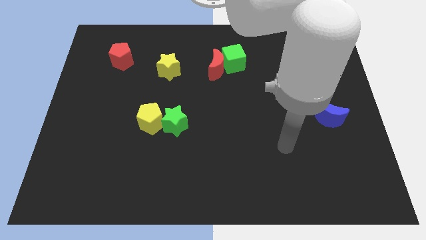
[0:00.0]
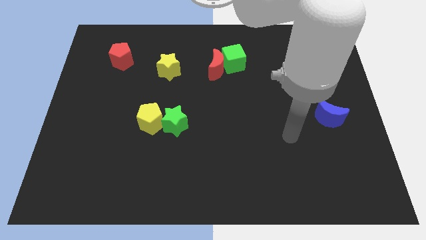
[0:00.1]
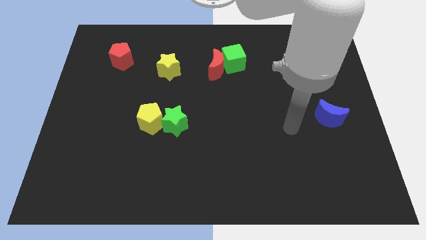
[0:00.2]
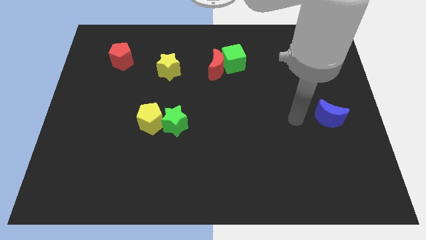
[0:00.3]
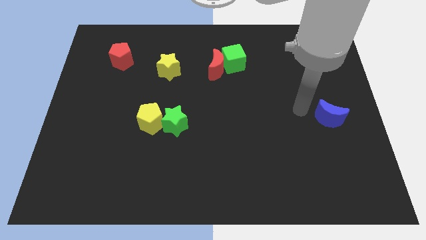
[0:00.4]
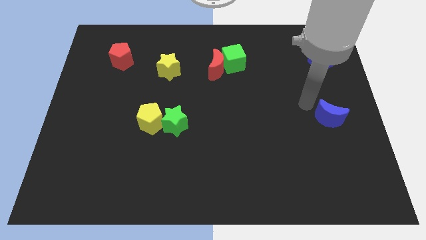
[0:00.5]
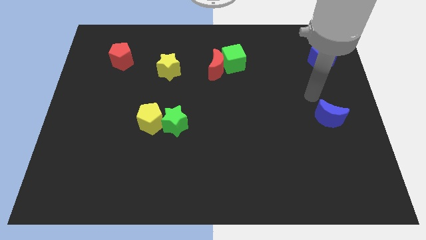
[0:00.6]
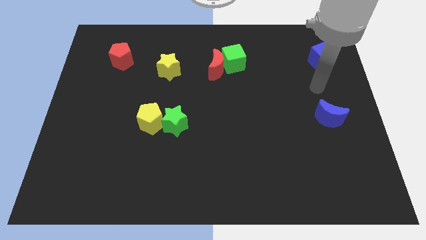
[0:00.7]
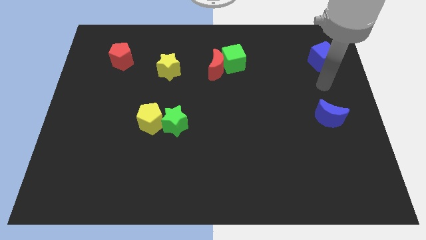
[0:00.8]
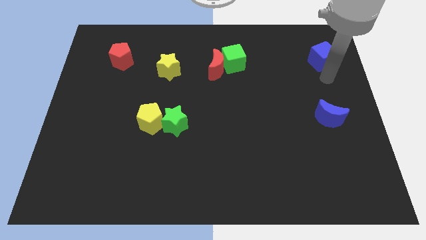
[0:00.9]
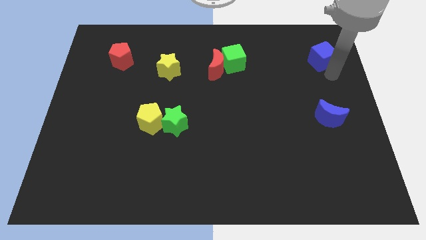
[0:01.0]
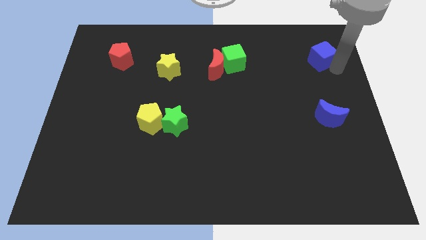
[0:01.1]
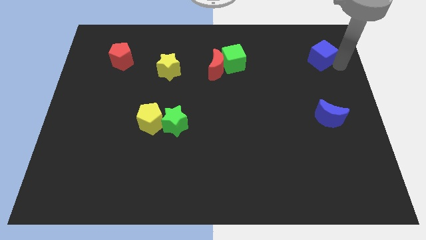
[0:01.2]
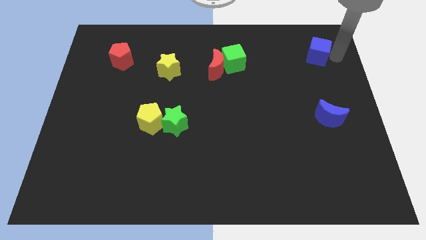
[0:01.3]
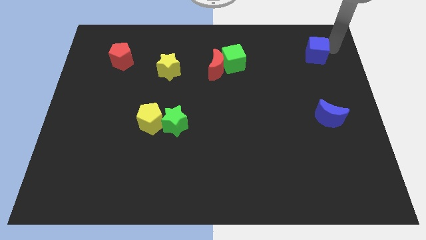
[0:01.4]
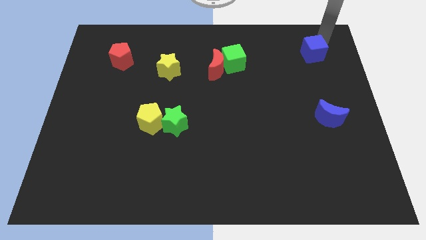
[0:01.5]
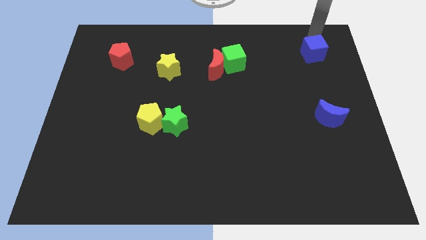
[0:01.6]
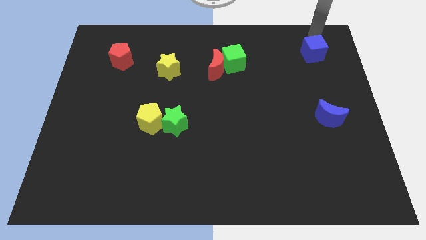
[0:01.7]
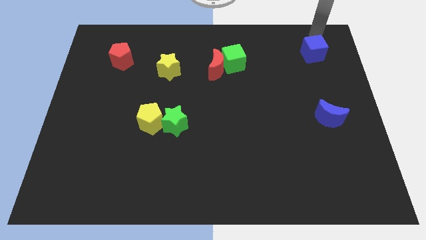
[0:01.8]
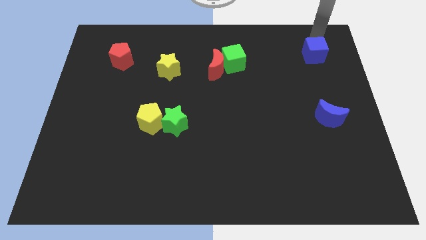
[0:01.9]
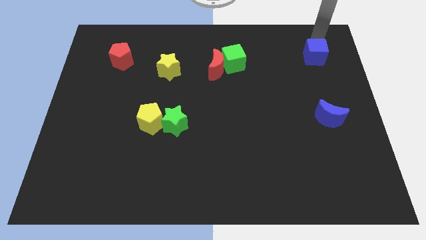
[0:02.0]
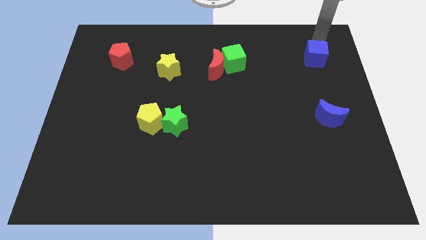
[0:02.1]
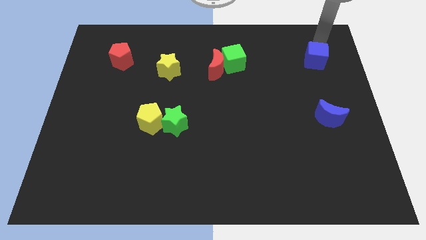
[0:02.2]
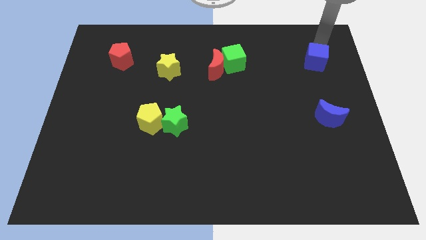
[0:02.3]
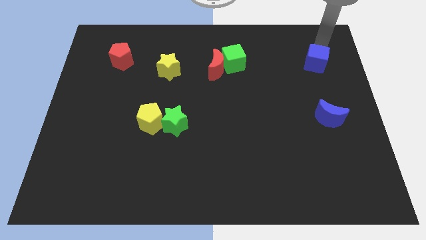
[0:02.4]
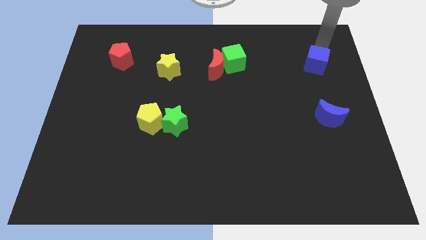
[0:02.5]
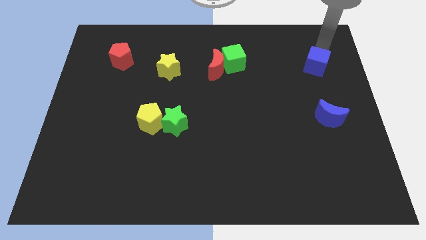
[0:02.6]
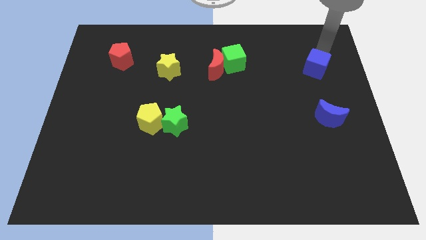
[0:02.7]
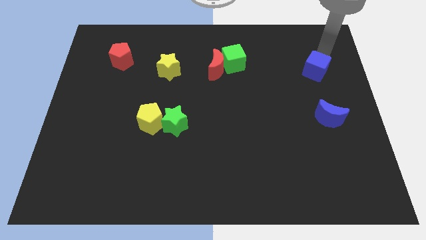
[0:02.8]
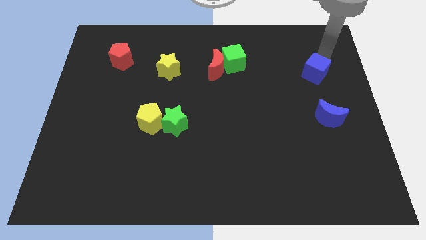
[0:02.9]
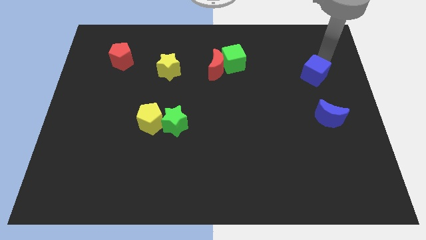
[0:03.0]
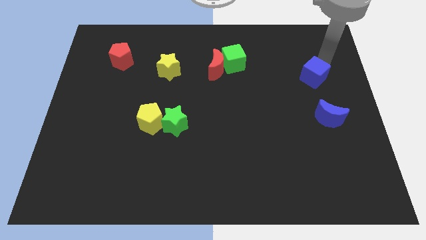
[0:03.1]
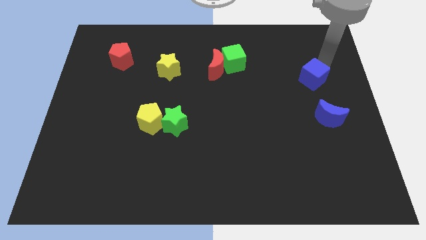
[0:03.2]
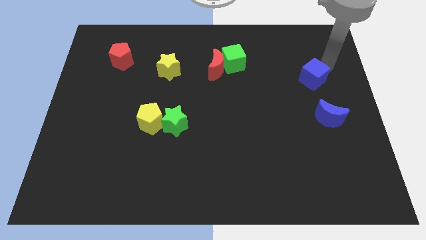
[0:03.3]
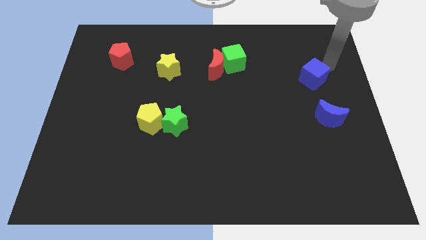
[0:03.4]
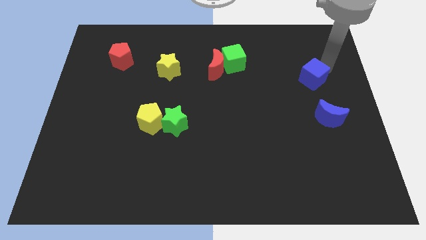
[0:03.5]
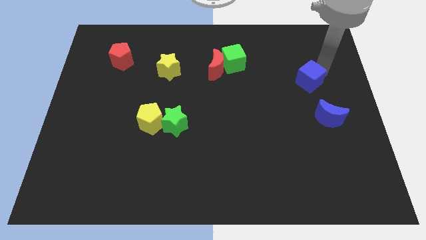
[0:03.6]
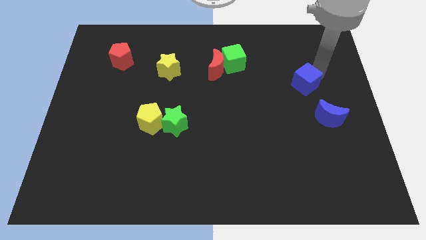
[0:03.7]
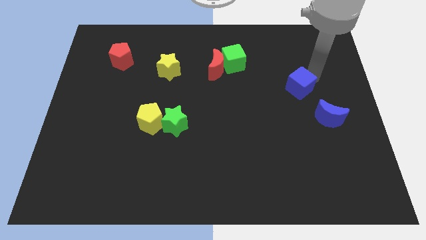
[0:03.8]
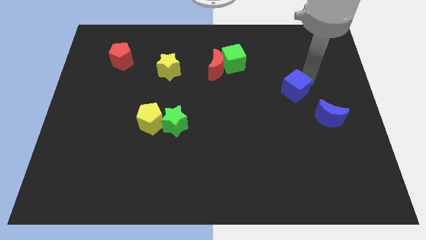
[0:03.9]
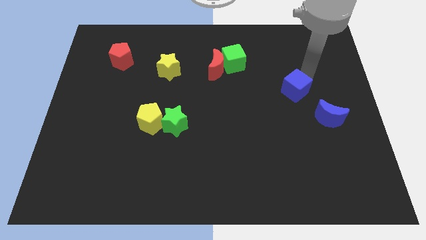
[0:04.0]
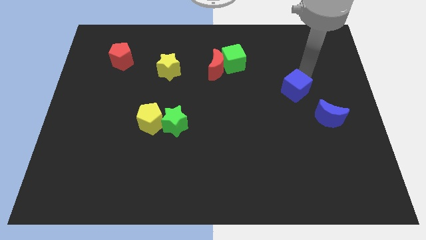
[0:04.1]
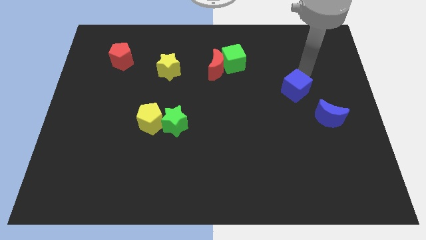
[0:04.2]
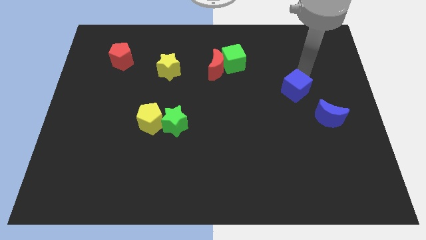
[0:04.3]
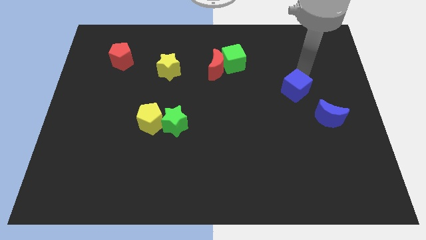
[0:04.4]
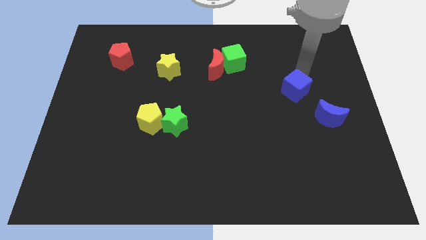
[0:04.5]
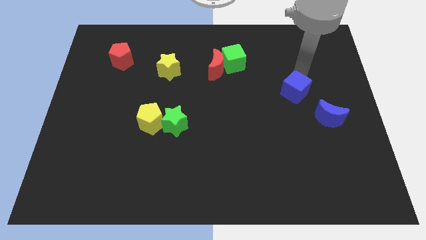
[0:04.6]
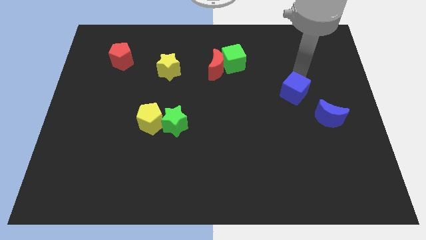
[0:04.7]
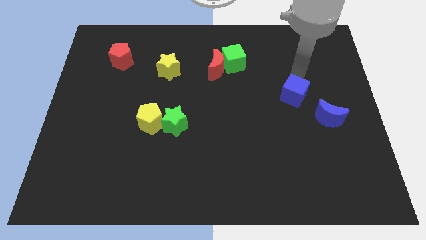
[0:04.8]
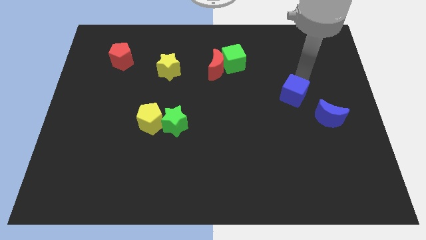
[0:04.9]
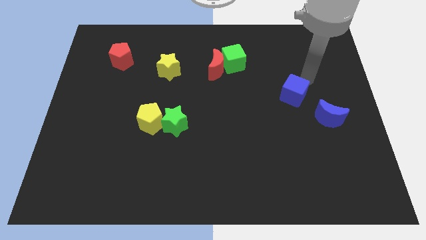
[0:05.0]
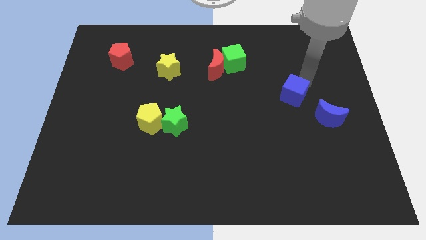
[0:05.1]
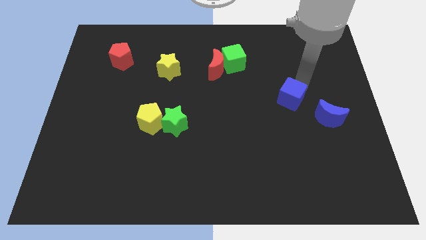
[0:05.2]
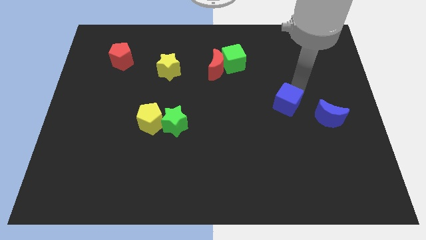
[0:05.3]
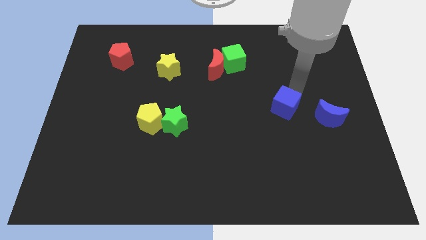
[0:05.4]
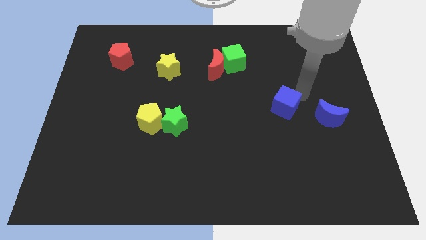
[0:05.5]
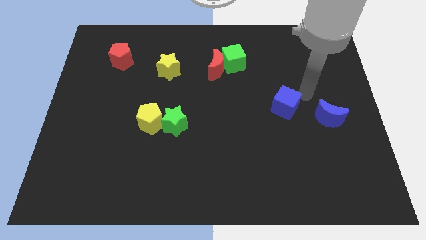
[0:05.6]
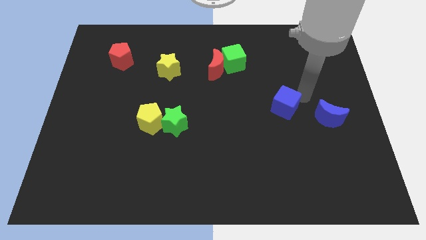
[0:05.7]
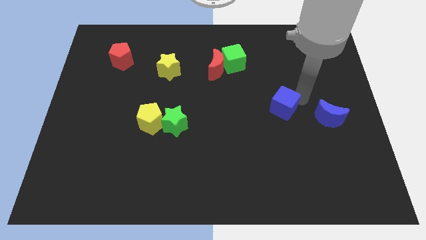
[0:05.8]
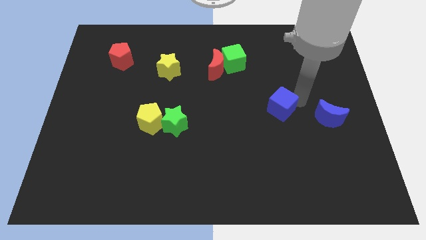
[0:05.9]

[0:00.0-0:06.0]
slide the blue cube down and left

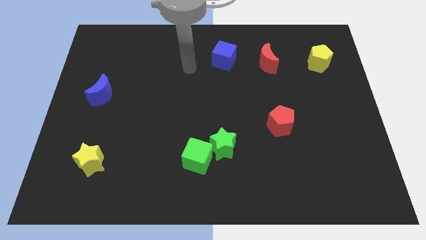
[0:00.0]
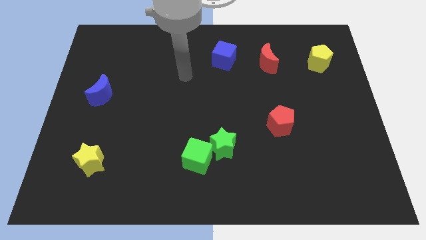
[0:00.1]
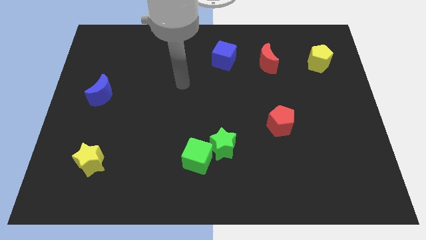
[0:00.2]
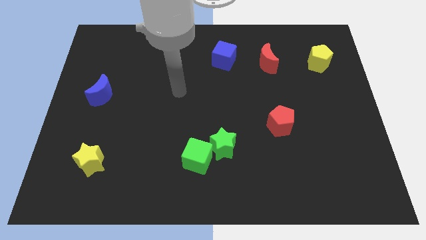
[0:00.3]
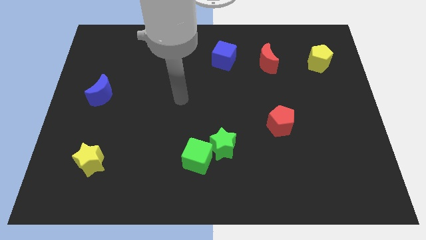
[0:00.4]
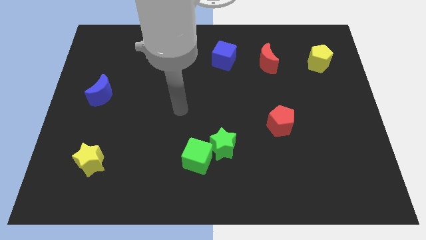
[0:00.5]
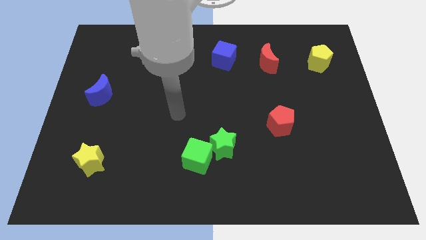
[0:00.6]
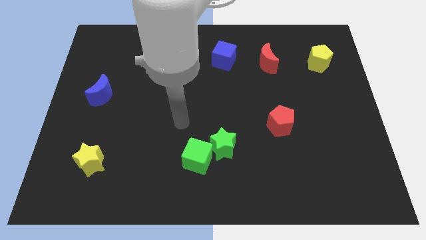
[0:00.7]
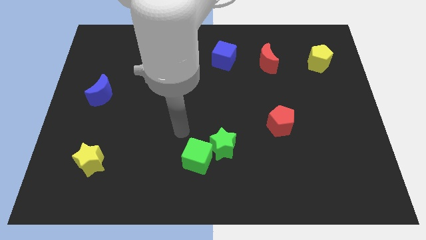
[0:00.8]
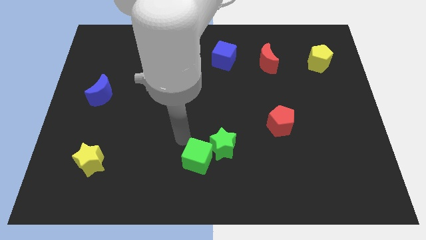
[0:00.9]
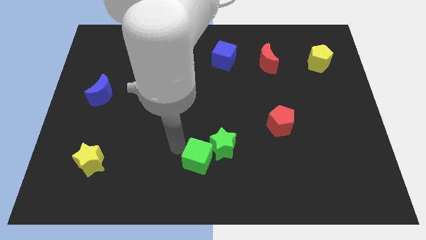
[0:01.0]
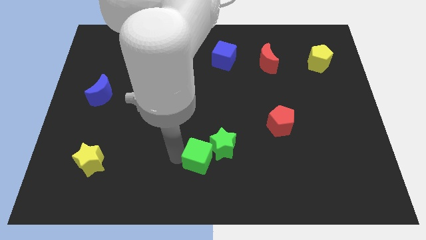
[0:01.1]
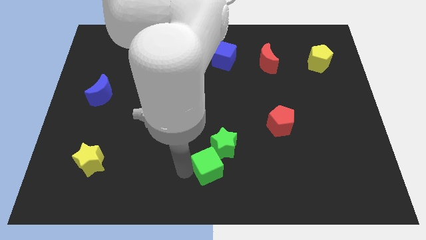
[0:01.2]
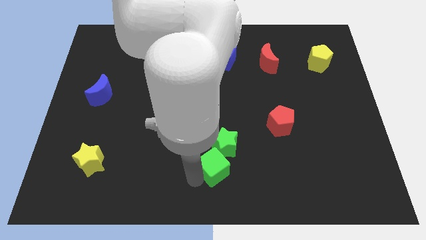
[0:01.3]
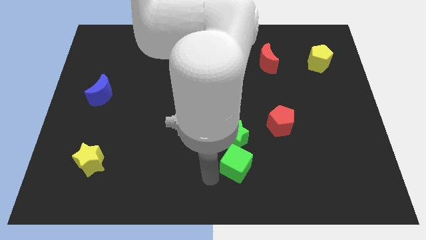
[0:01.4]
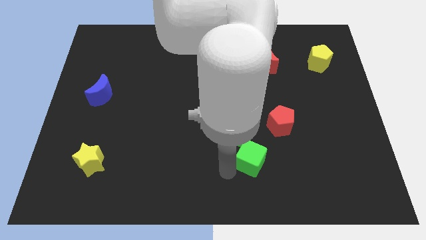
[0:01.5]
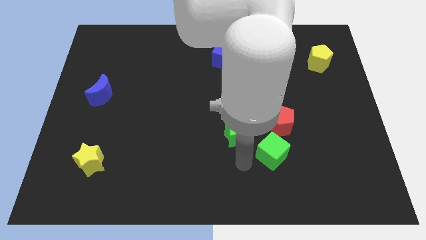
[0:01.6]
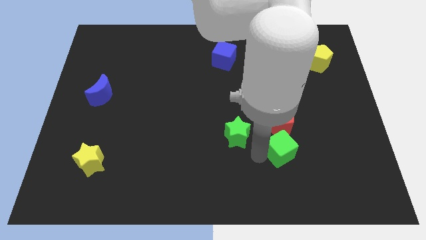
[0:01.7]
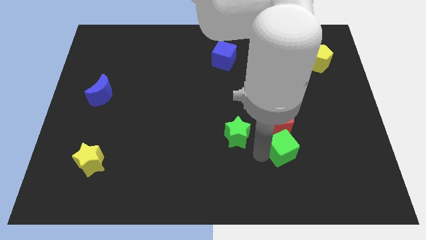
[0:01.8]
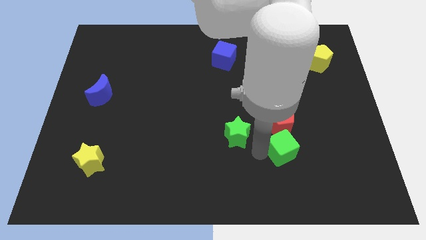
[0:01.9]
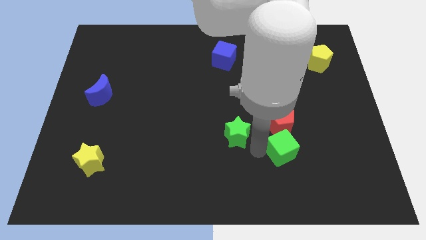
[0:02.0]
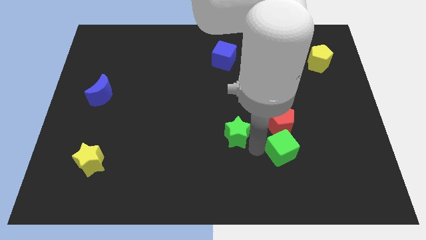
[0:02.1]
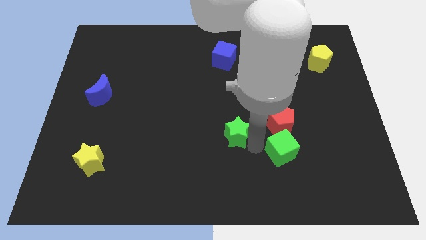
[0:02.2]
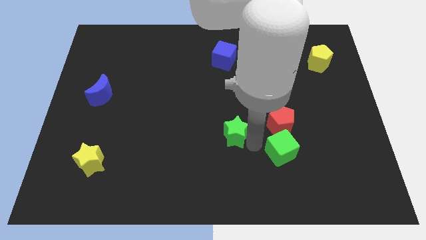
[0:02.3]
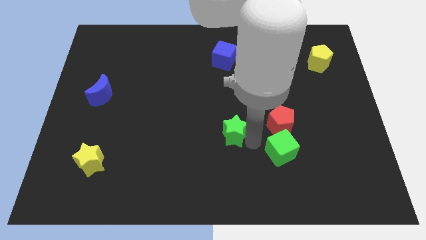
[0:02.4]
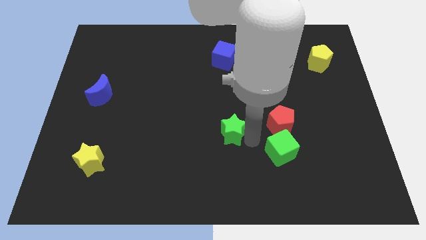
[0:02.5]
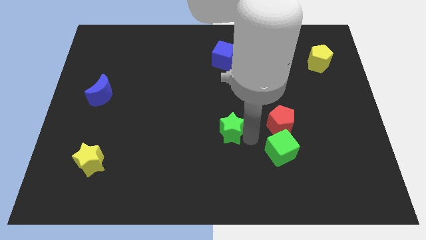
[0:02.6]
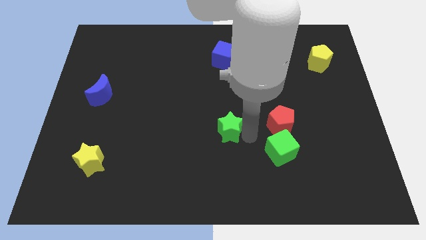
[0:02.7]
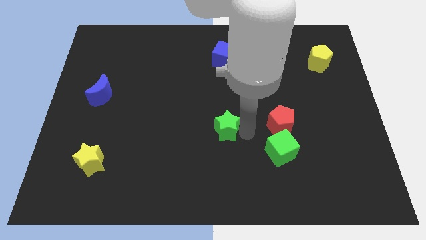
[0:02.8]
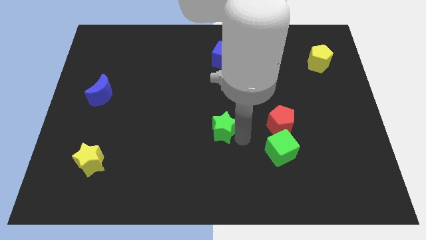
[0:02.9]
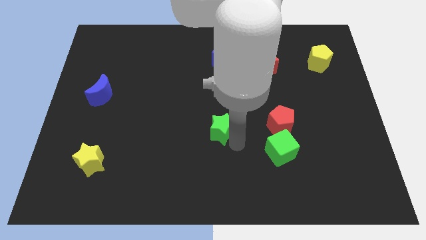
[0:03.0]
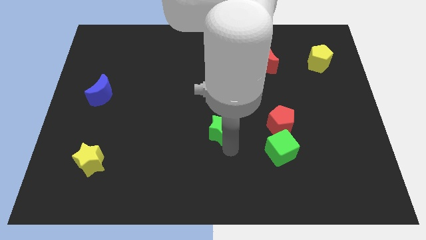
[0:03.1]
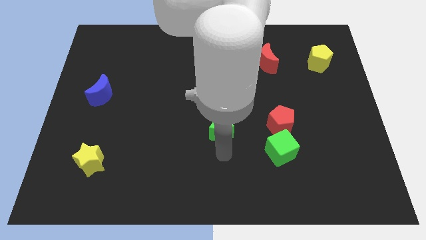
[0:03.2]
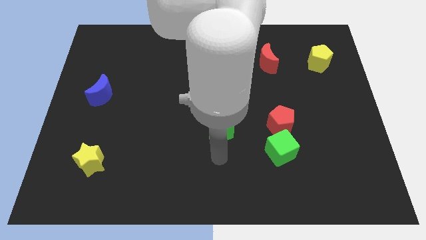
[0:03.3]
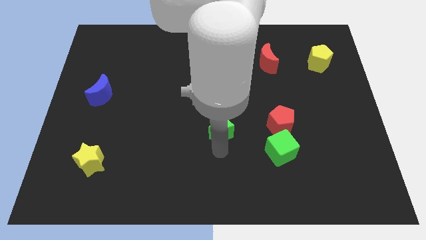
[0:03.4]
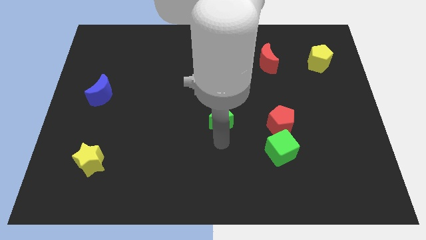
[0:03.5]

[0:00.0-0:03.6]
push the green star upwards somewhat
